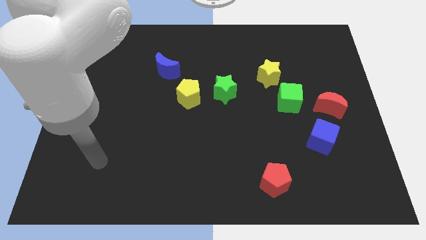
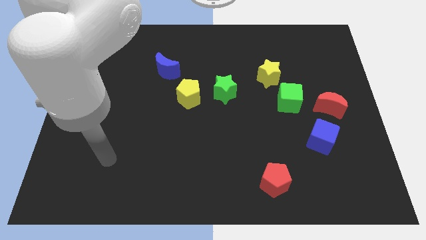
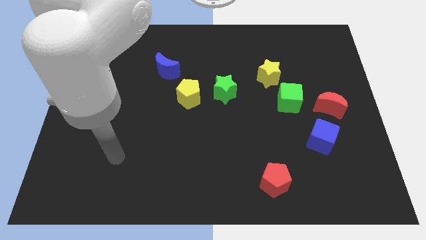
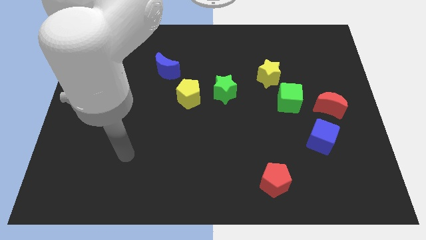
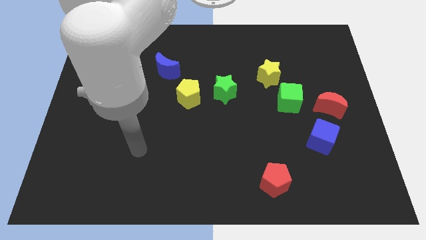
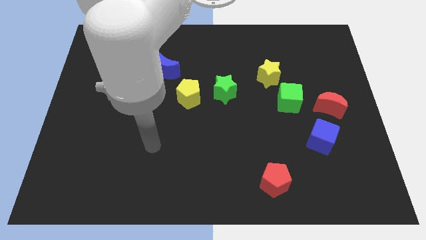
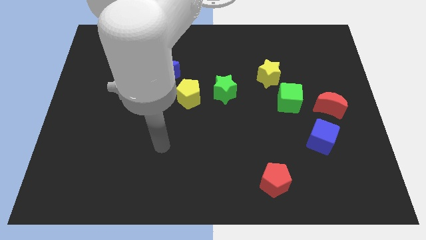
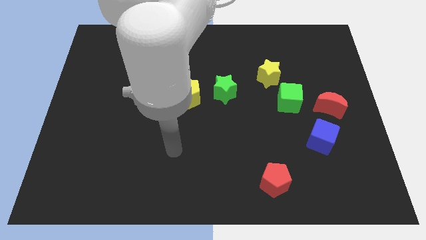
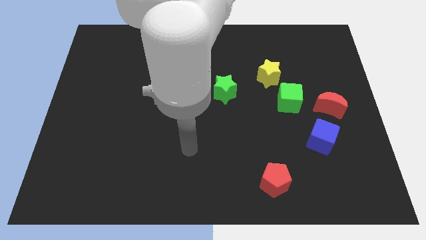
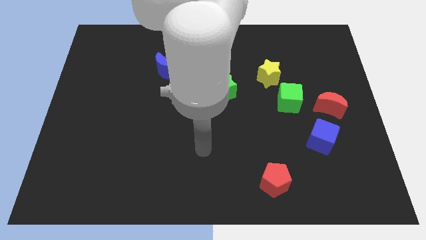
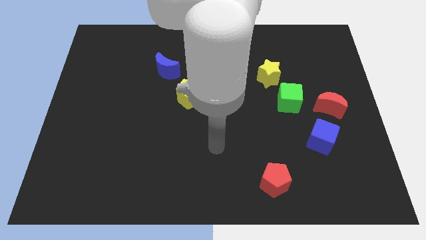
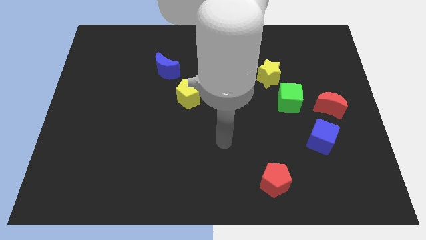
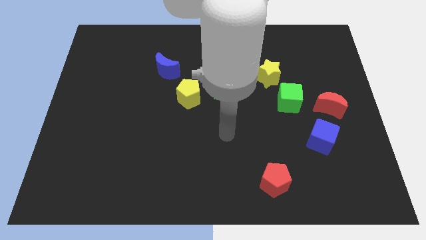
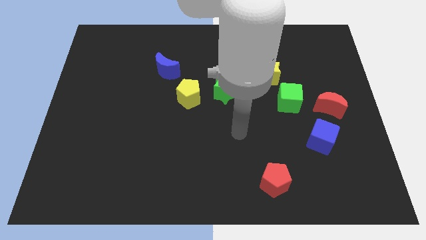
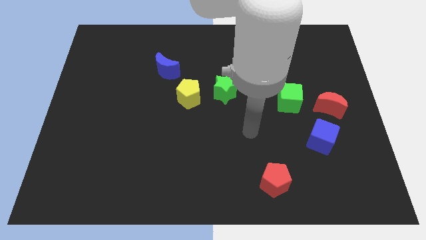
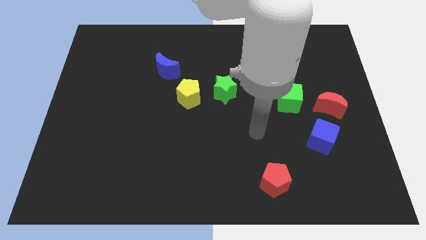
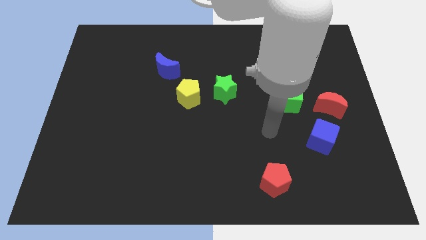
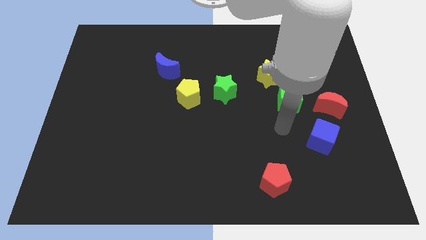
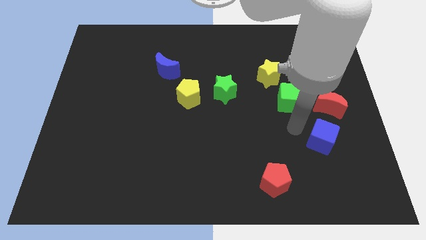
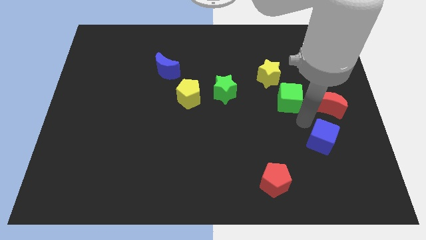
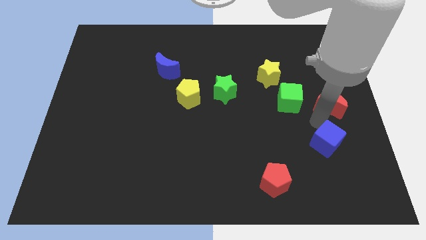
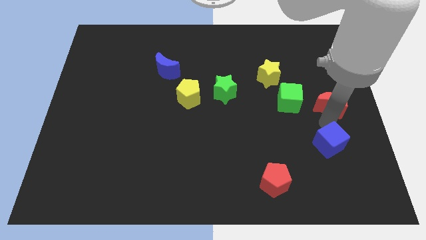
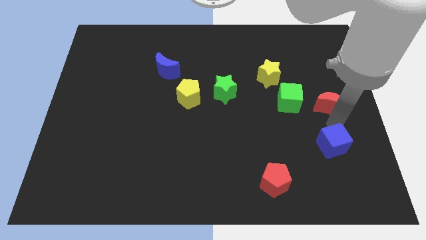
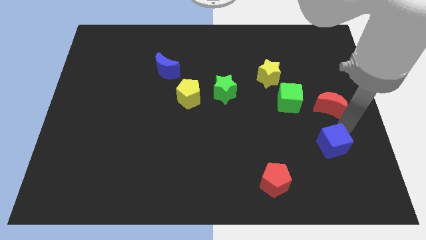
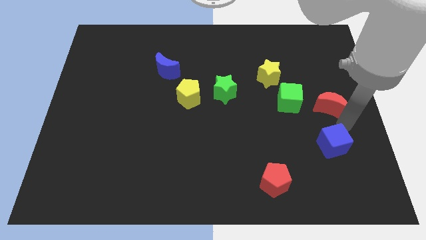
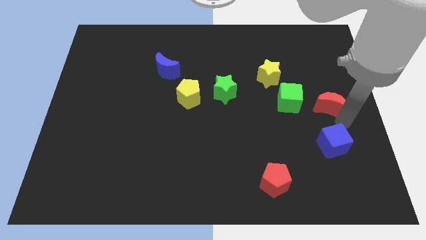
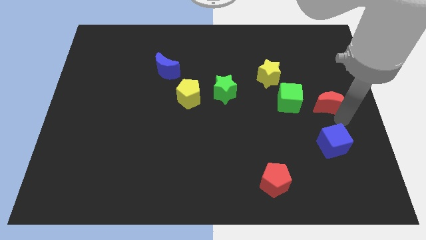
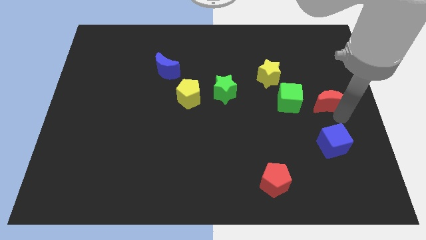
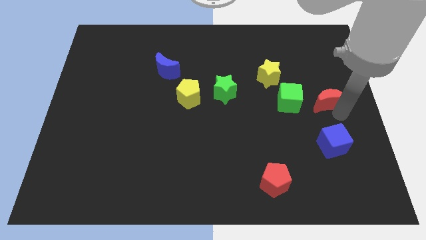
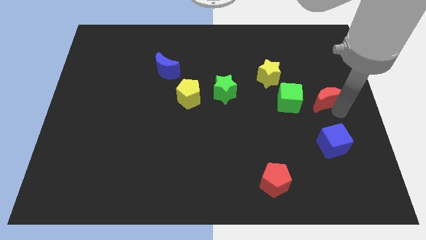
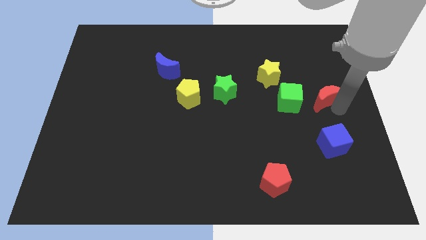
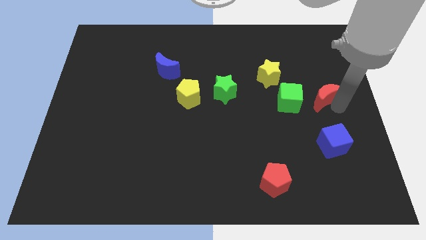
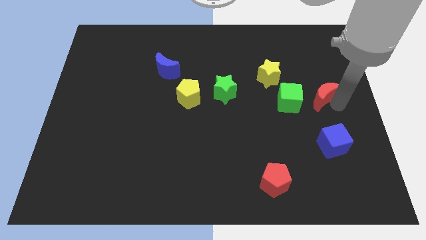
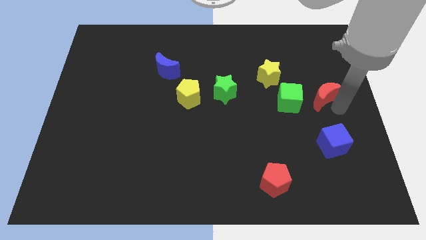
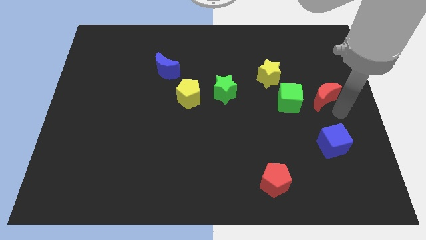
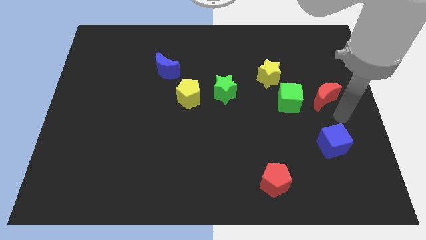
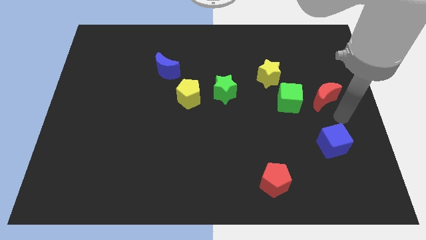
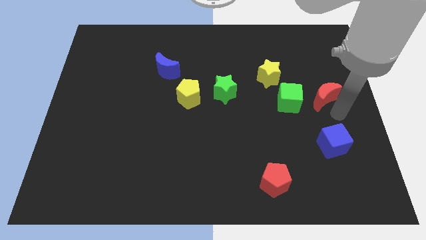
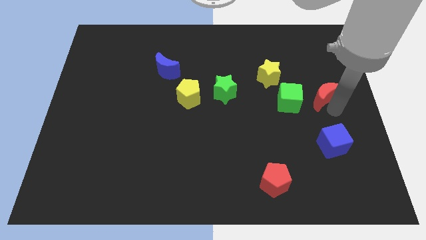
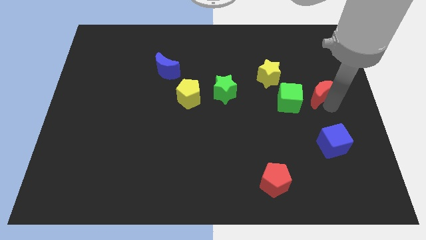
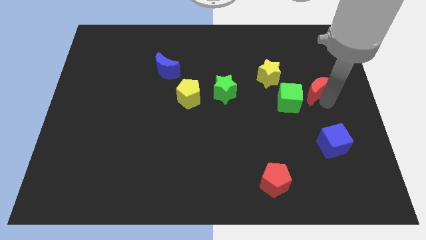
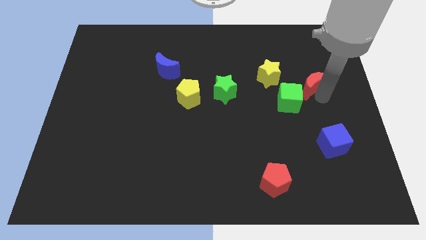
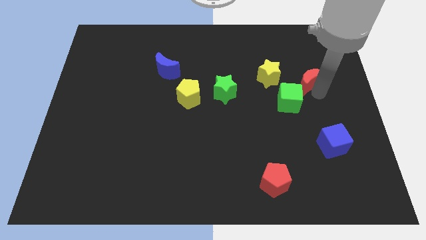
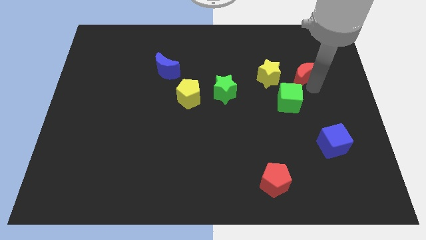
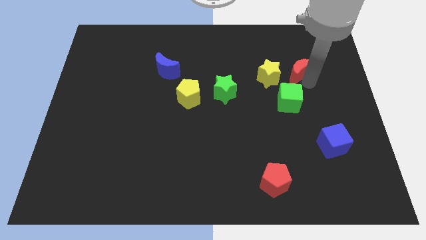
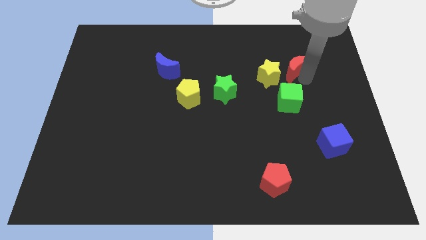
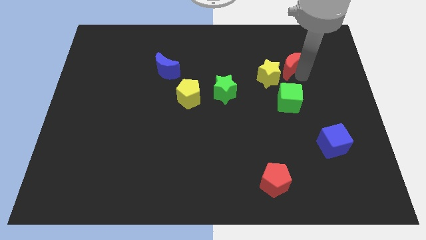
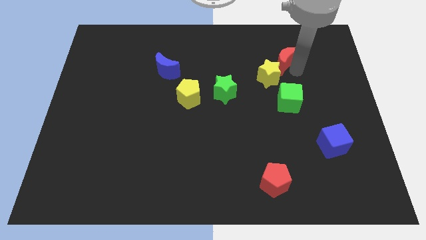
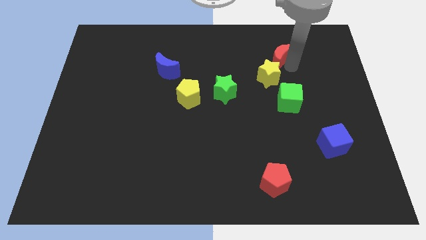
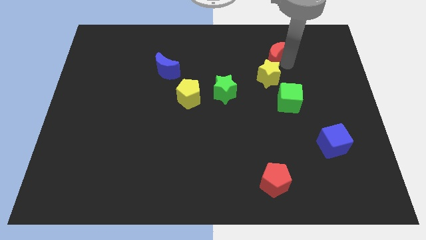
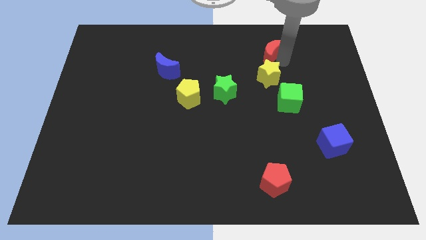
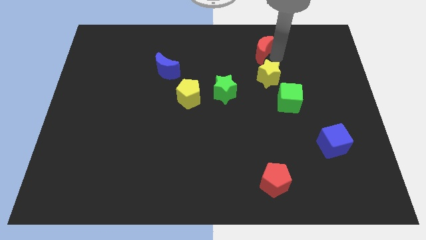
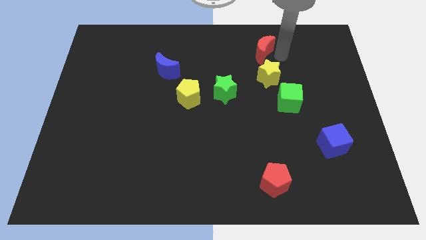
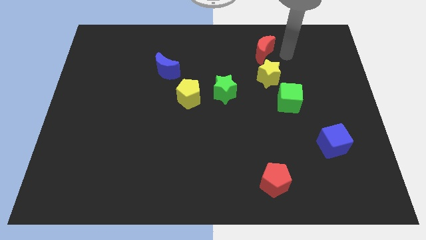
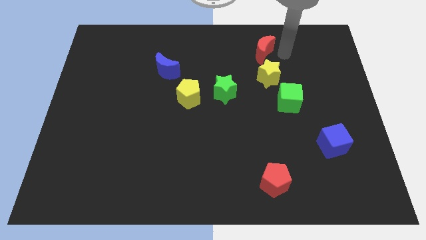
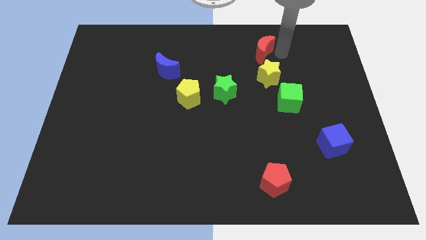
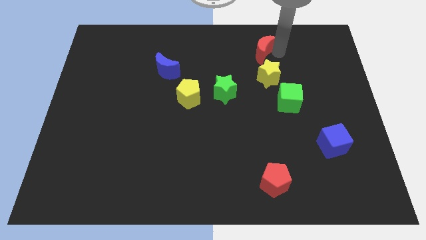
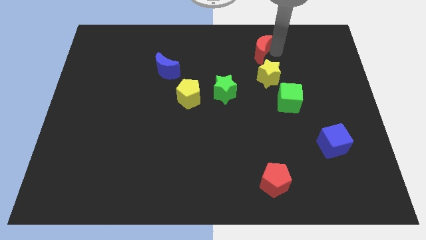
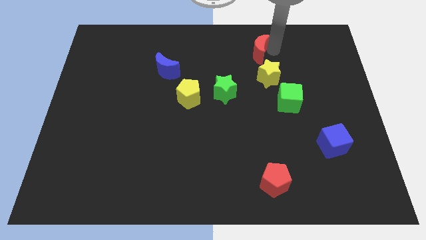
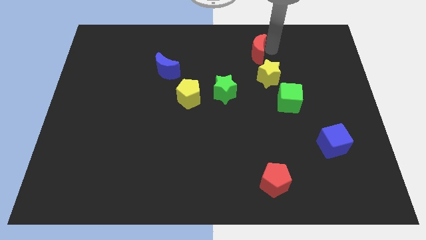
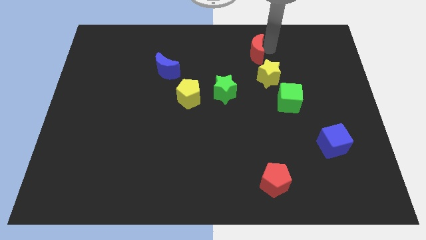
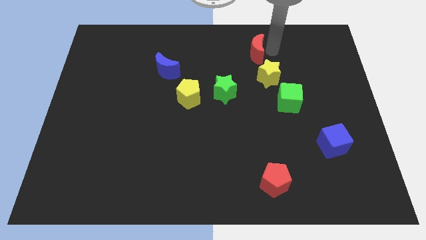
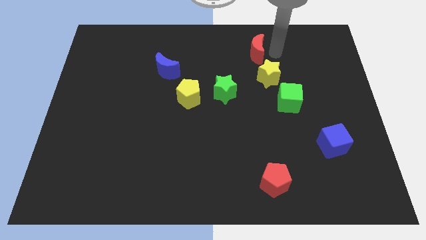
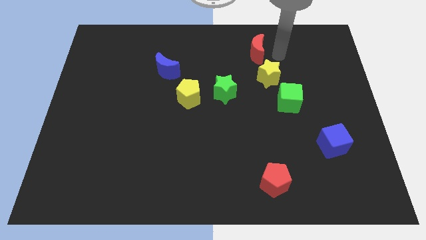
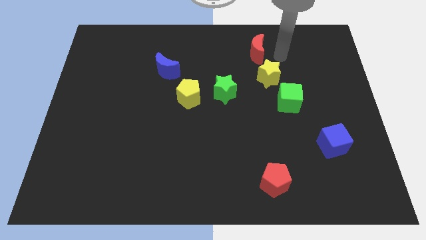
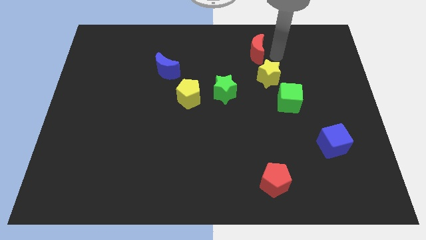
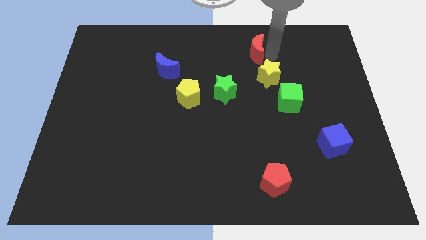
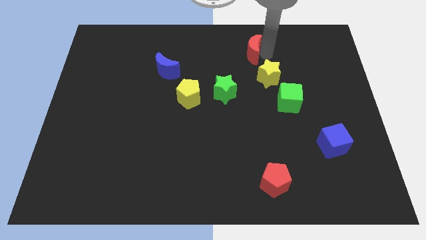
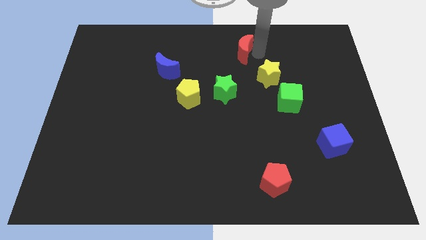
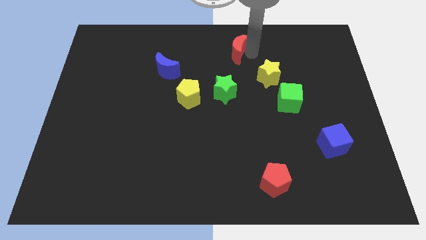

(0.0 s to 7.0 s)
slide the red moon to the top side
